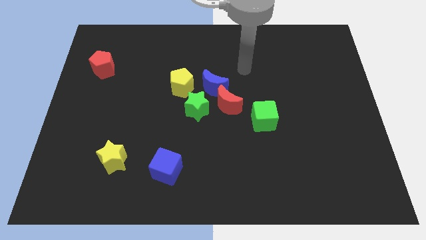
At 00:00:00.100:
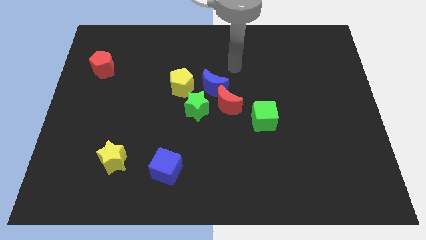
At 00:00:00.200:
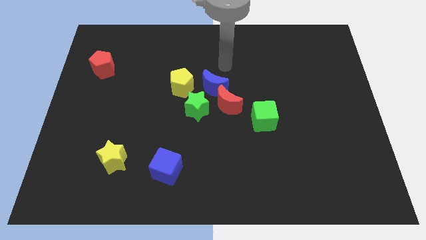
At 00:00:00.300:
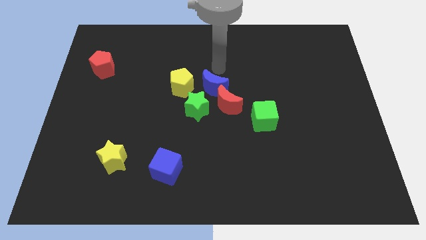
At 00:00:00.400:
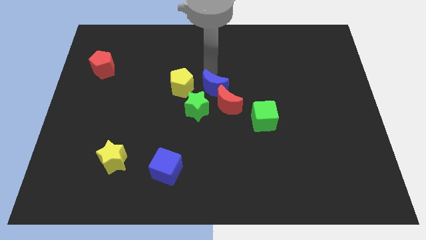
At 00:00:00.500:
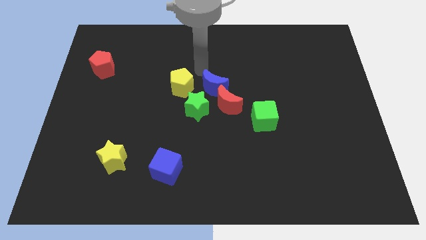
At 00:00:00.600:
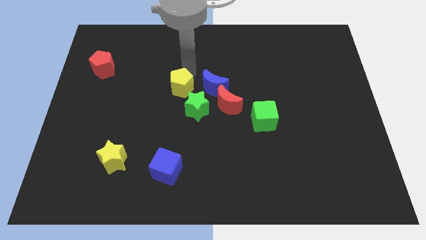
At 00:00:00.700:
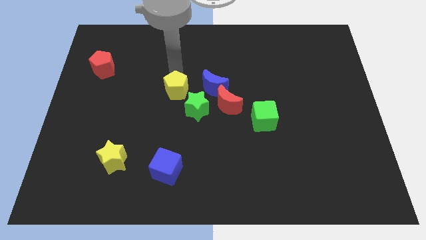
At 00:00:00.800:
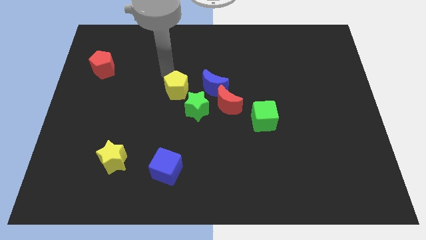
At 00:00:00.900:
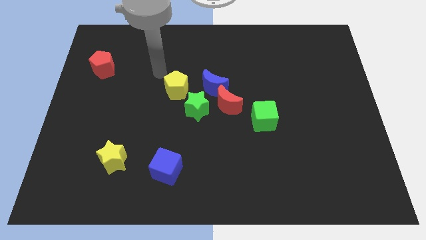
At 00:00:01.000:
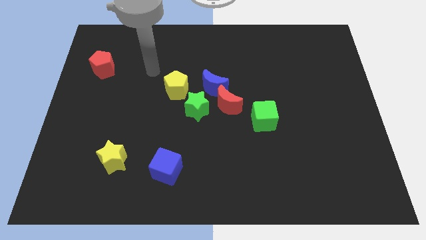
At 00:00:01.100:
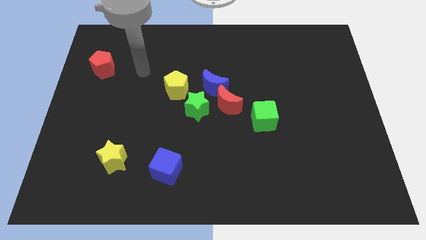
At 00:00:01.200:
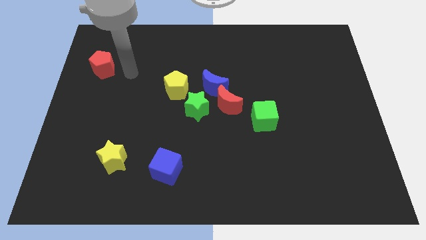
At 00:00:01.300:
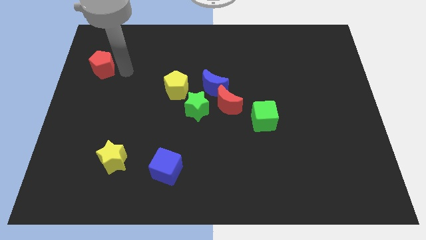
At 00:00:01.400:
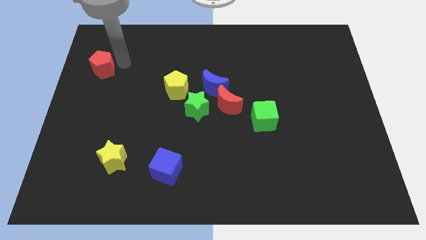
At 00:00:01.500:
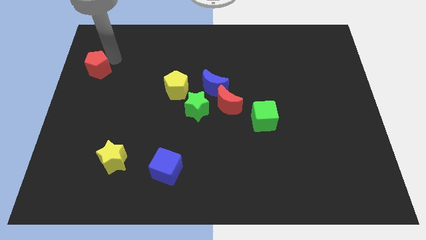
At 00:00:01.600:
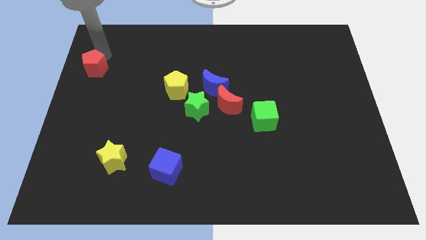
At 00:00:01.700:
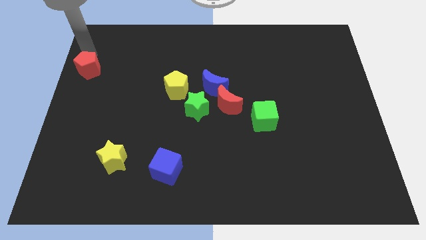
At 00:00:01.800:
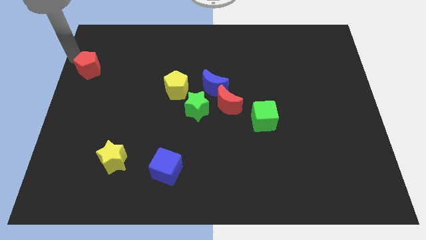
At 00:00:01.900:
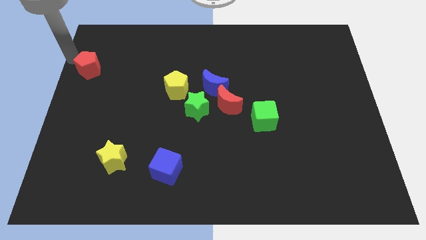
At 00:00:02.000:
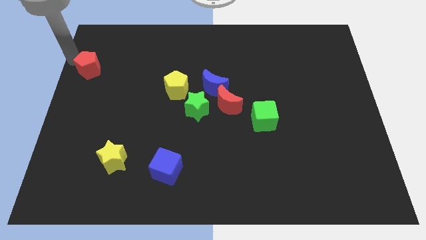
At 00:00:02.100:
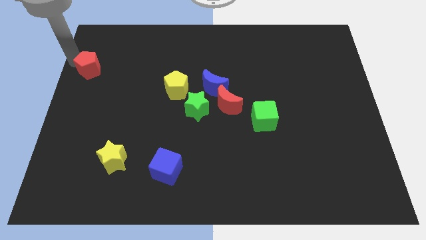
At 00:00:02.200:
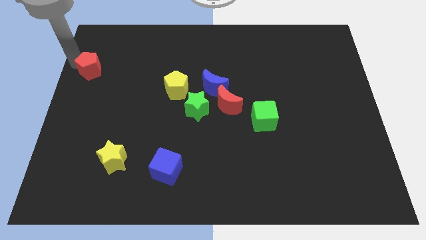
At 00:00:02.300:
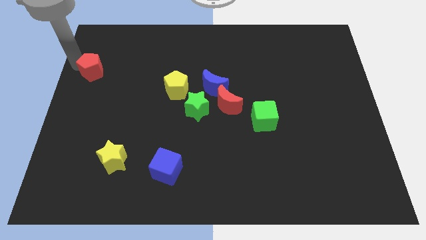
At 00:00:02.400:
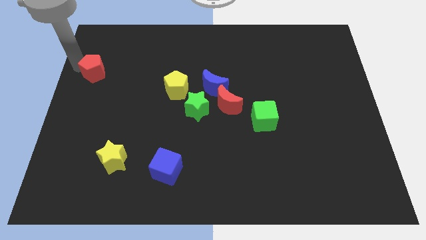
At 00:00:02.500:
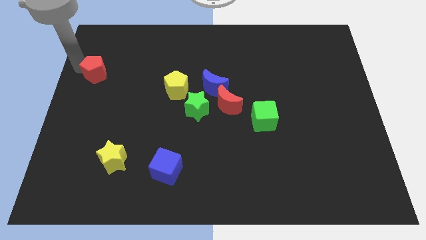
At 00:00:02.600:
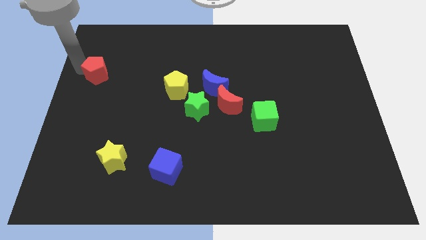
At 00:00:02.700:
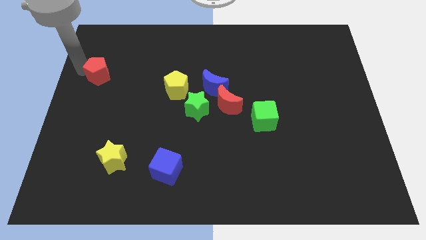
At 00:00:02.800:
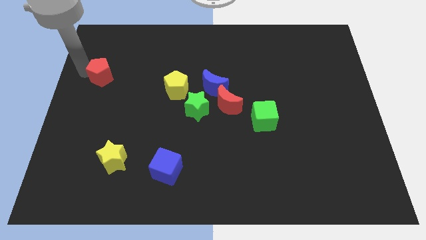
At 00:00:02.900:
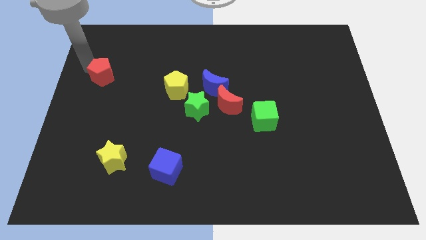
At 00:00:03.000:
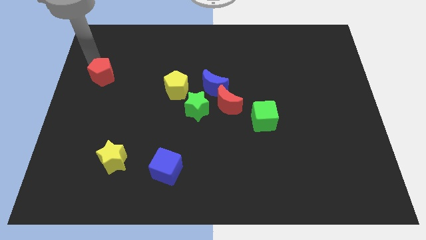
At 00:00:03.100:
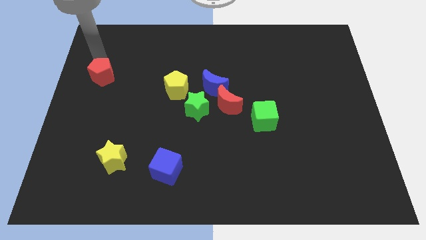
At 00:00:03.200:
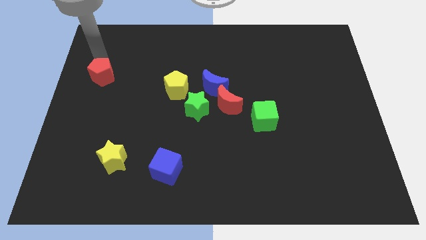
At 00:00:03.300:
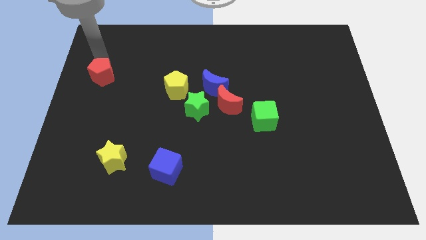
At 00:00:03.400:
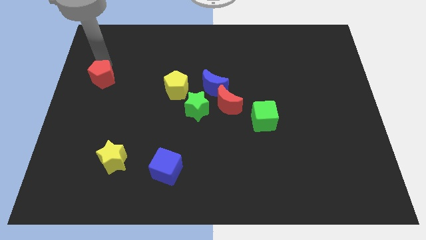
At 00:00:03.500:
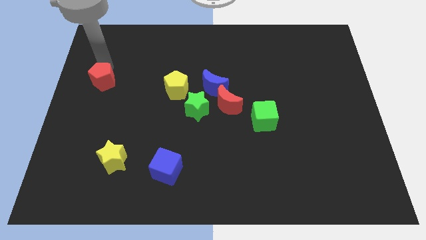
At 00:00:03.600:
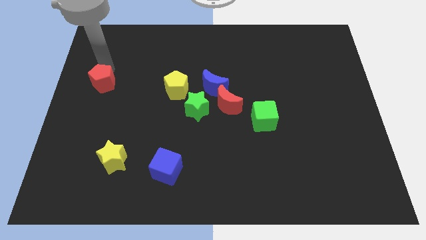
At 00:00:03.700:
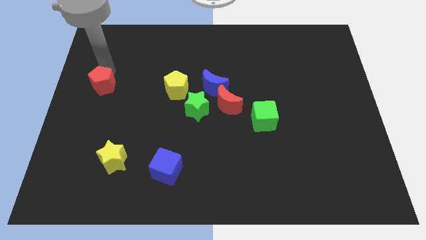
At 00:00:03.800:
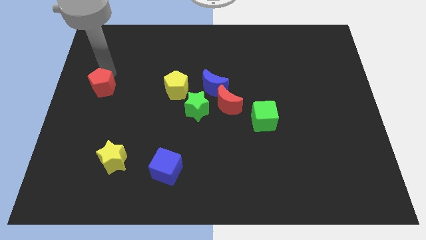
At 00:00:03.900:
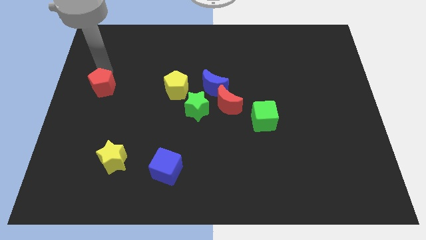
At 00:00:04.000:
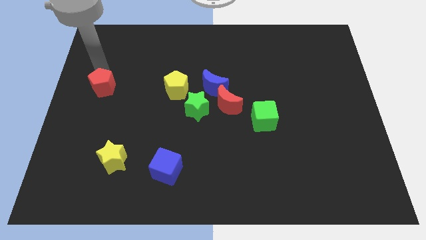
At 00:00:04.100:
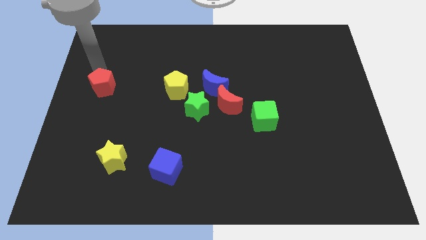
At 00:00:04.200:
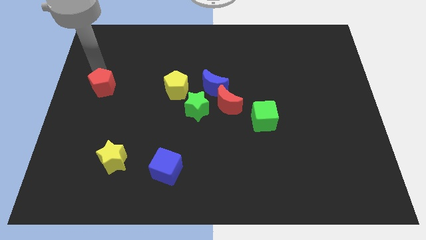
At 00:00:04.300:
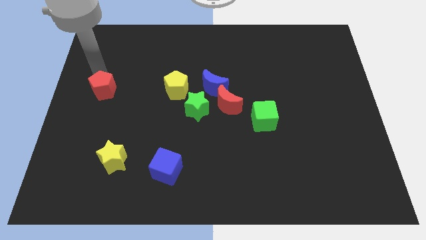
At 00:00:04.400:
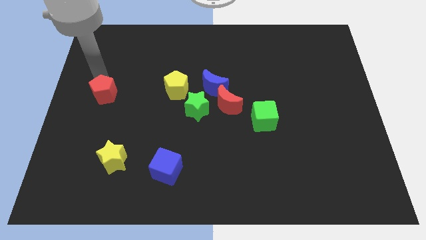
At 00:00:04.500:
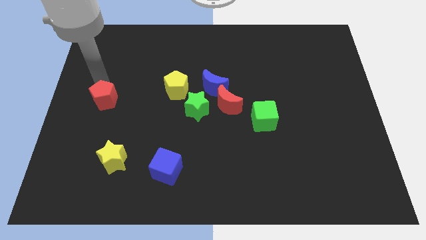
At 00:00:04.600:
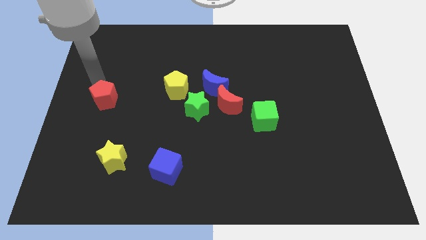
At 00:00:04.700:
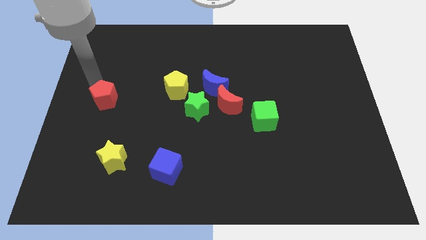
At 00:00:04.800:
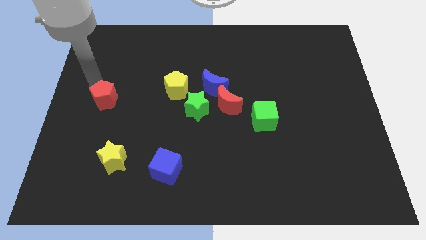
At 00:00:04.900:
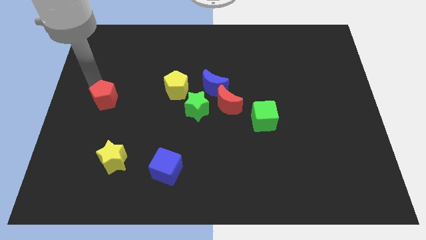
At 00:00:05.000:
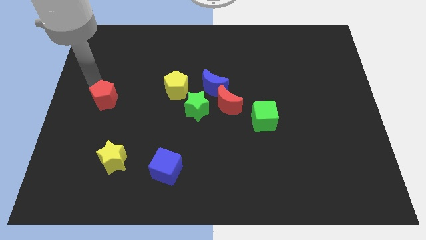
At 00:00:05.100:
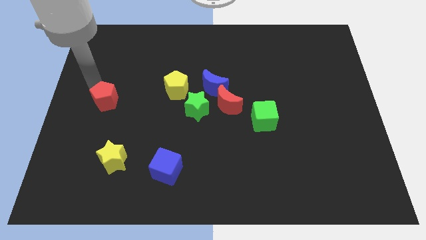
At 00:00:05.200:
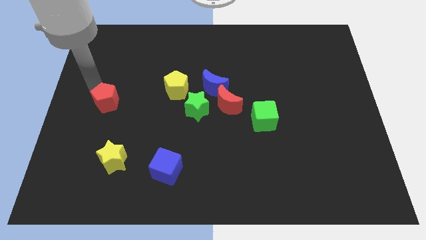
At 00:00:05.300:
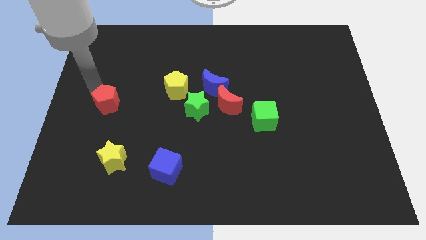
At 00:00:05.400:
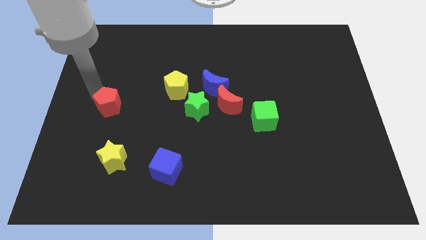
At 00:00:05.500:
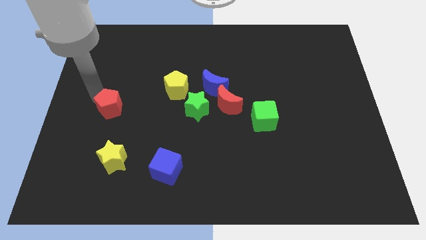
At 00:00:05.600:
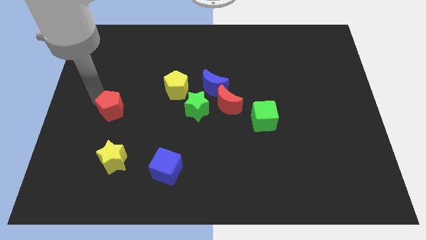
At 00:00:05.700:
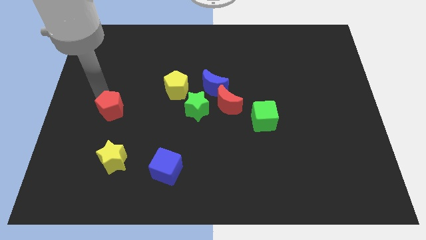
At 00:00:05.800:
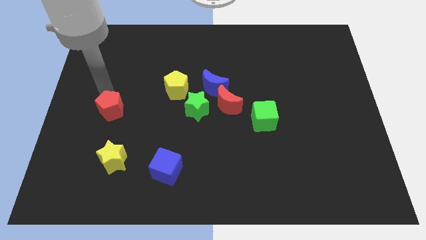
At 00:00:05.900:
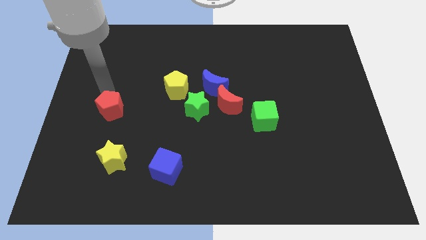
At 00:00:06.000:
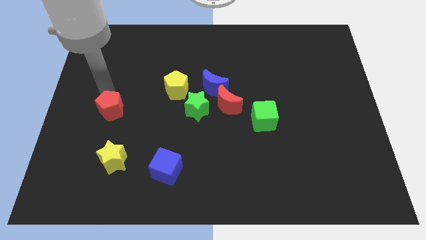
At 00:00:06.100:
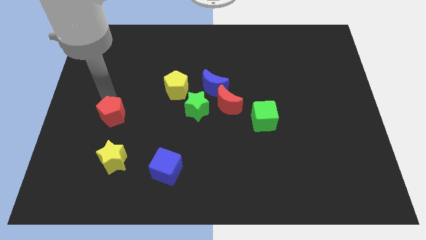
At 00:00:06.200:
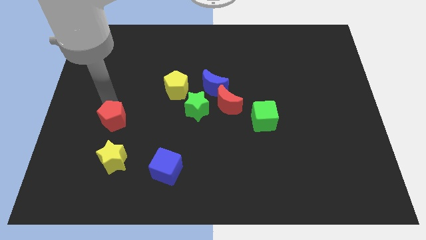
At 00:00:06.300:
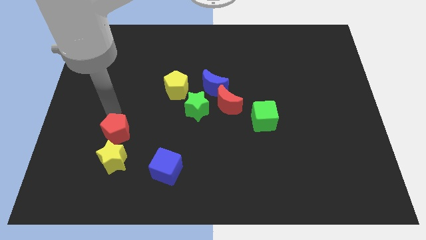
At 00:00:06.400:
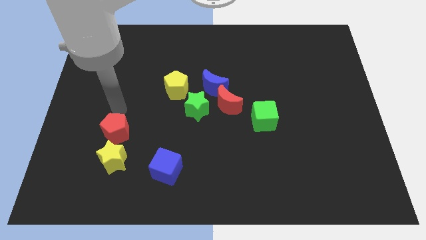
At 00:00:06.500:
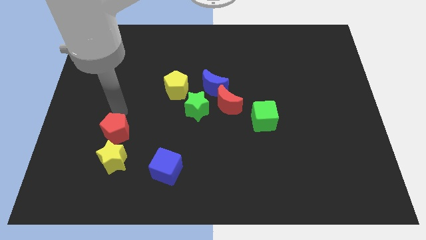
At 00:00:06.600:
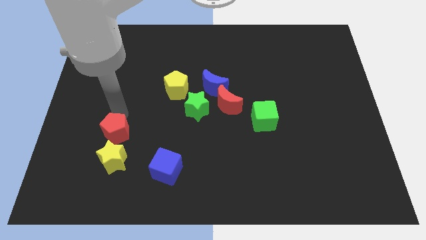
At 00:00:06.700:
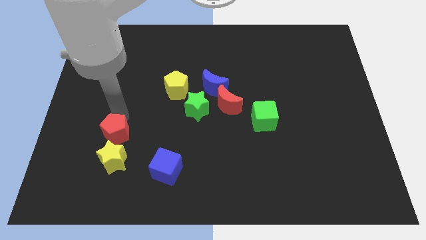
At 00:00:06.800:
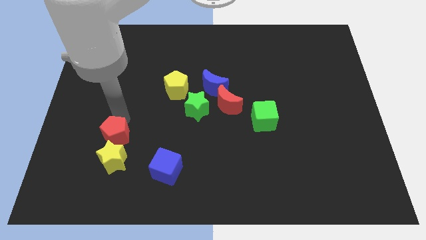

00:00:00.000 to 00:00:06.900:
move the red pentagon next to the yellow star
